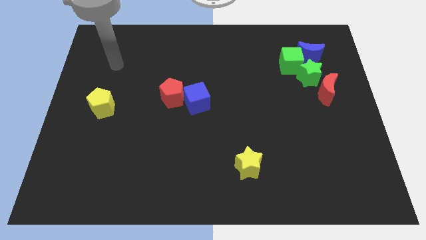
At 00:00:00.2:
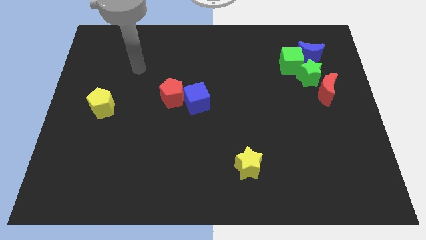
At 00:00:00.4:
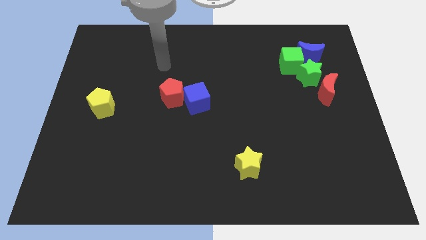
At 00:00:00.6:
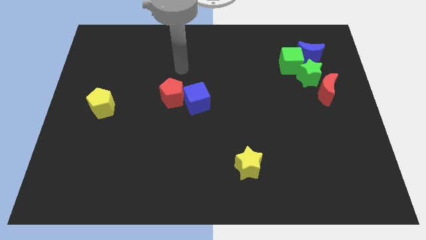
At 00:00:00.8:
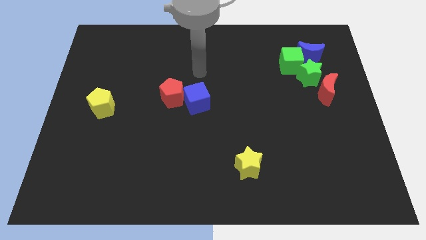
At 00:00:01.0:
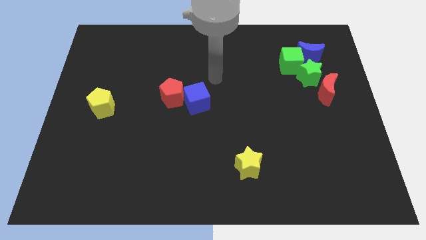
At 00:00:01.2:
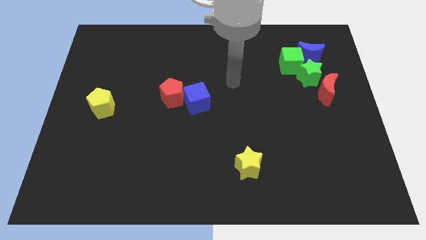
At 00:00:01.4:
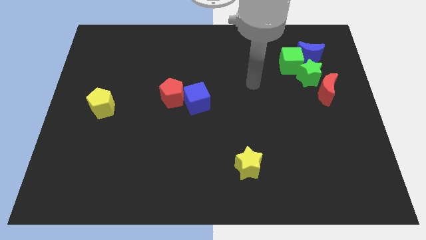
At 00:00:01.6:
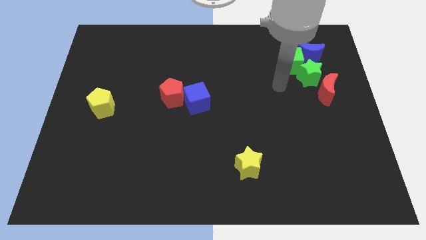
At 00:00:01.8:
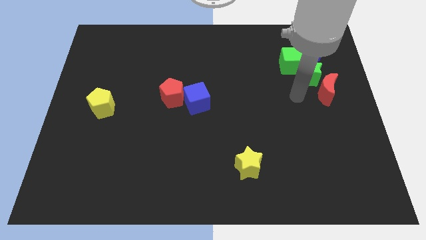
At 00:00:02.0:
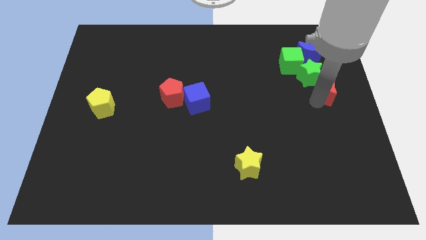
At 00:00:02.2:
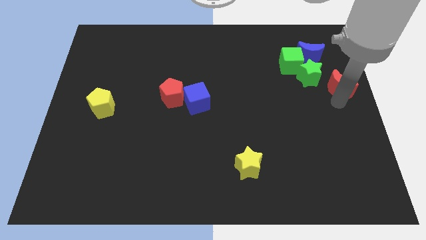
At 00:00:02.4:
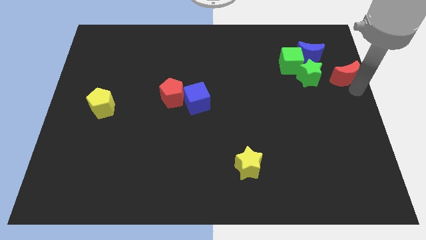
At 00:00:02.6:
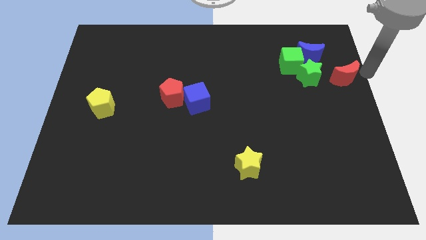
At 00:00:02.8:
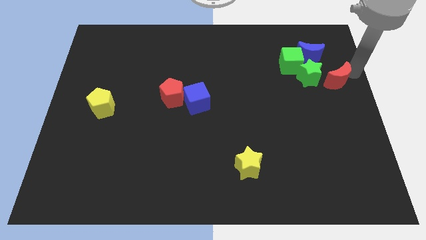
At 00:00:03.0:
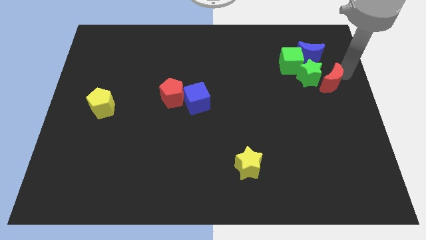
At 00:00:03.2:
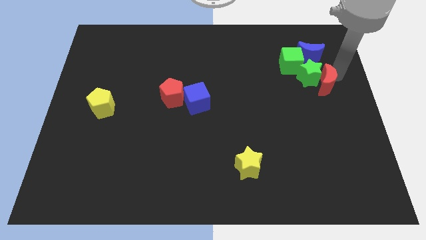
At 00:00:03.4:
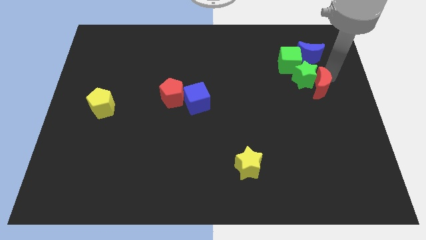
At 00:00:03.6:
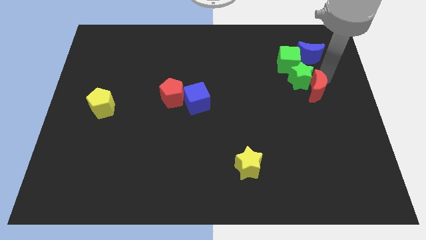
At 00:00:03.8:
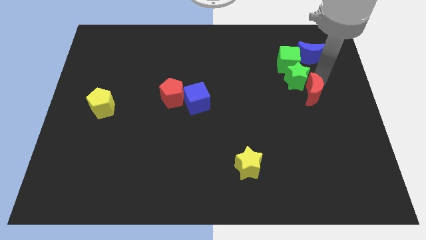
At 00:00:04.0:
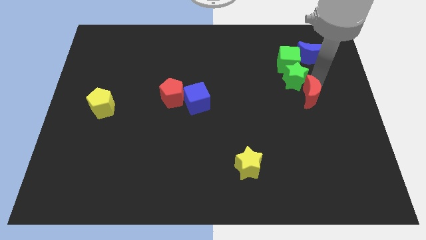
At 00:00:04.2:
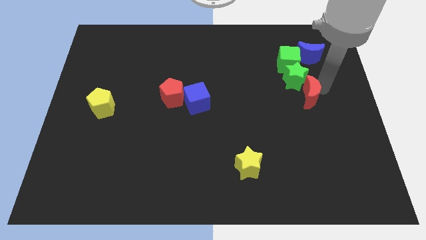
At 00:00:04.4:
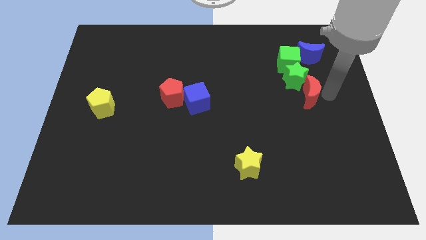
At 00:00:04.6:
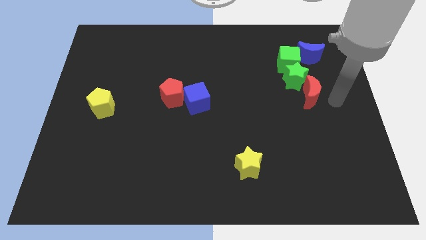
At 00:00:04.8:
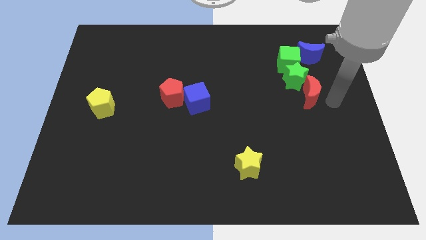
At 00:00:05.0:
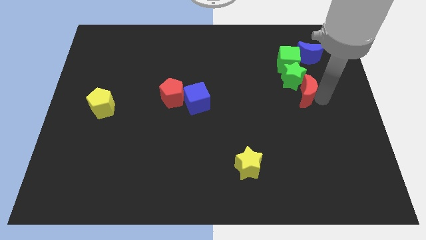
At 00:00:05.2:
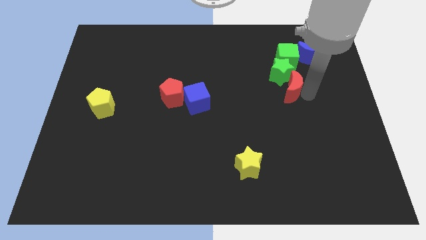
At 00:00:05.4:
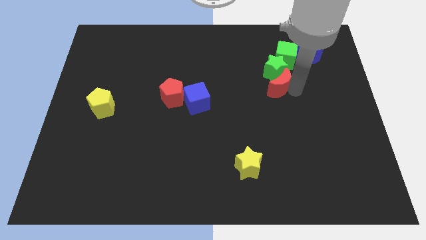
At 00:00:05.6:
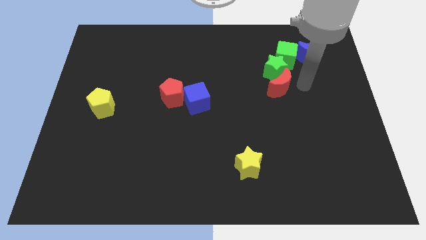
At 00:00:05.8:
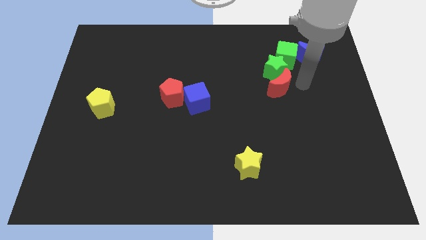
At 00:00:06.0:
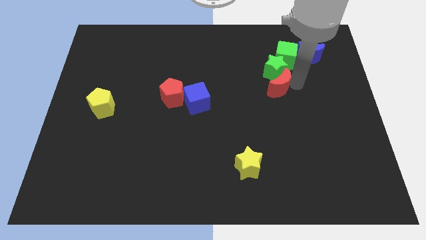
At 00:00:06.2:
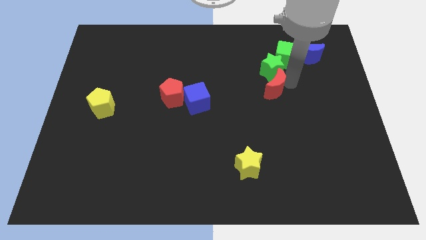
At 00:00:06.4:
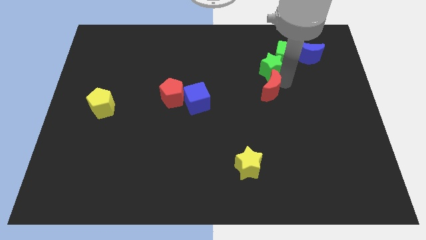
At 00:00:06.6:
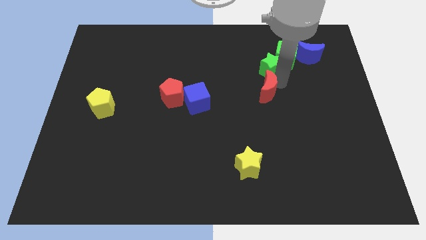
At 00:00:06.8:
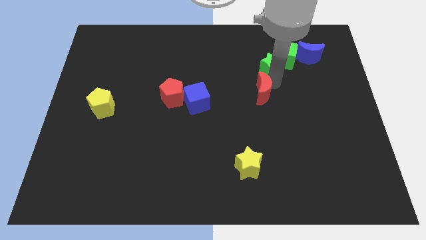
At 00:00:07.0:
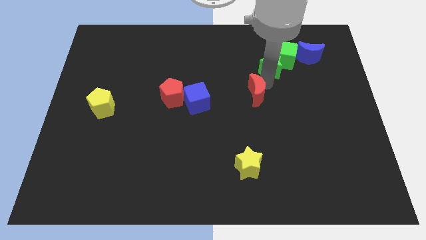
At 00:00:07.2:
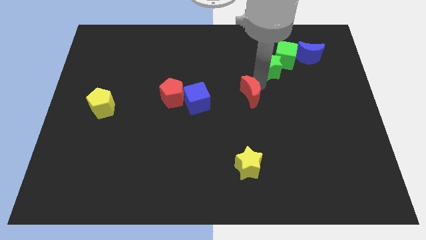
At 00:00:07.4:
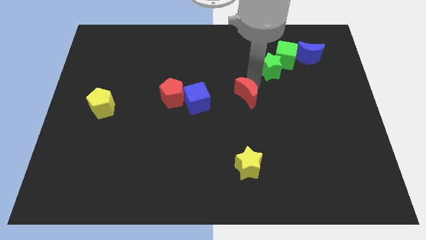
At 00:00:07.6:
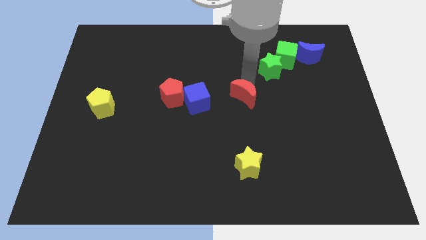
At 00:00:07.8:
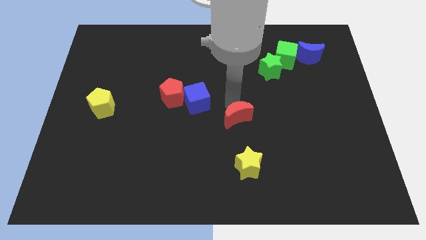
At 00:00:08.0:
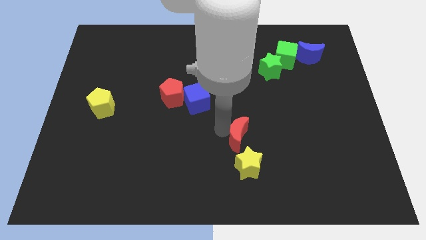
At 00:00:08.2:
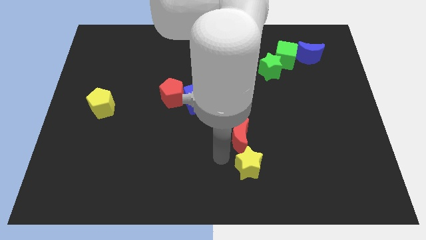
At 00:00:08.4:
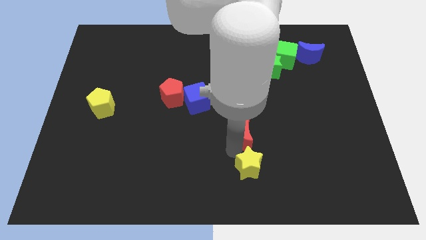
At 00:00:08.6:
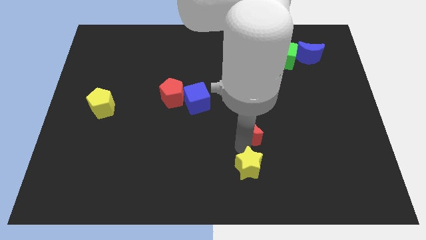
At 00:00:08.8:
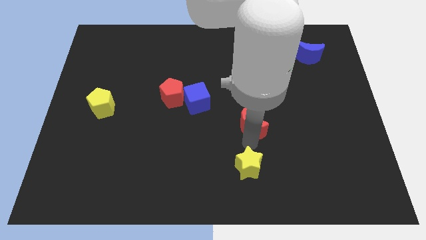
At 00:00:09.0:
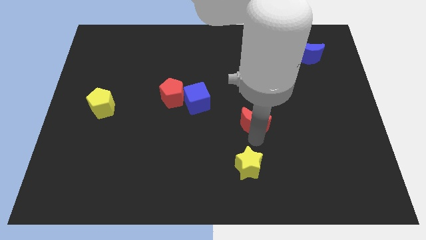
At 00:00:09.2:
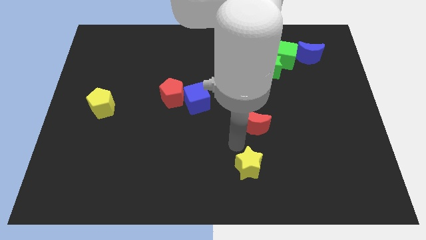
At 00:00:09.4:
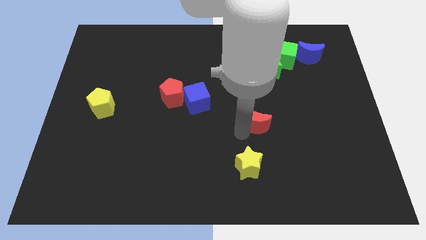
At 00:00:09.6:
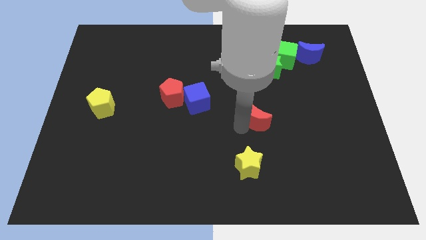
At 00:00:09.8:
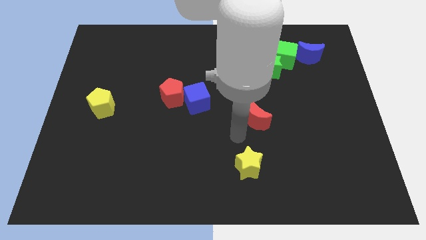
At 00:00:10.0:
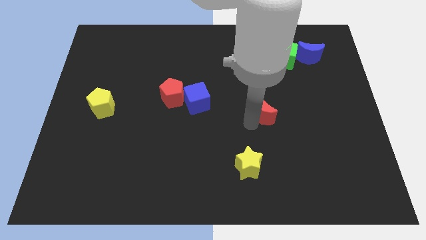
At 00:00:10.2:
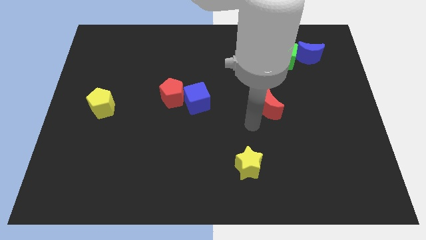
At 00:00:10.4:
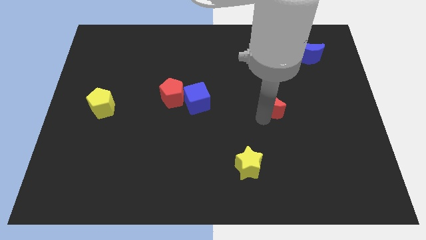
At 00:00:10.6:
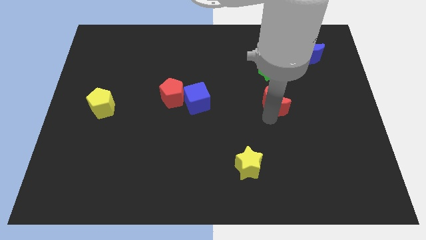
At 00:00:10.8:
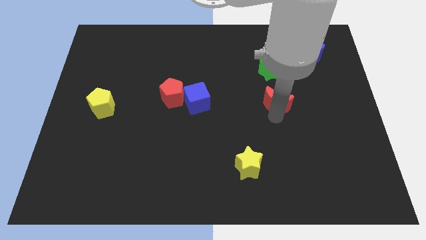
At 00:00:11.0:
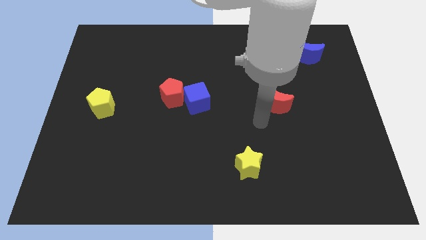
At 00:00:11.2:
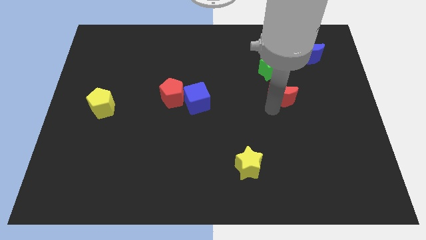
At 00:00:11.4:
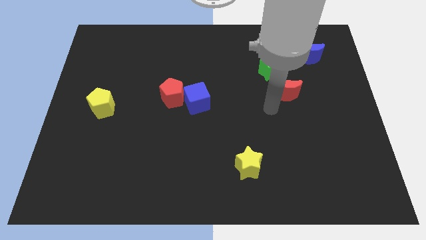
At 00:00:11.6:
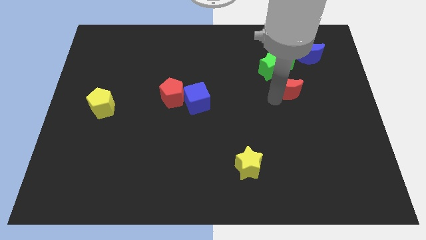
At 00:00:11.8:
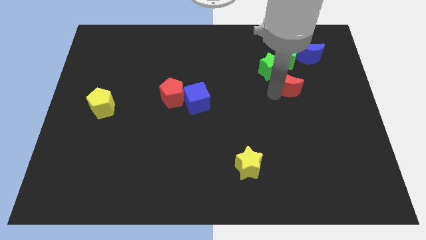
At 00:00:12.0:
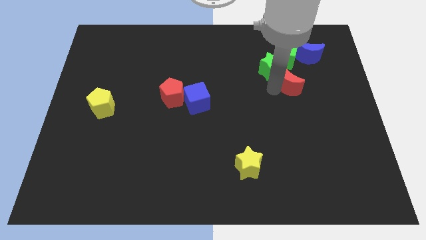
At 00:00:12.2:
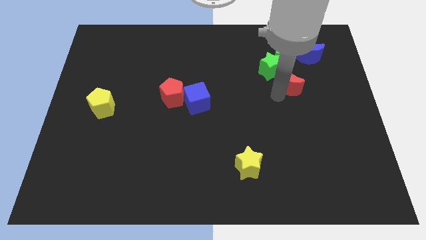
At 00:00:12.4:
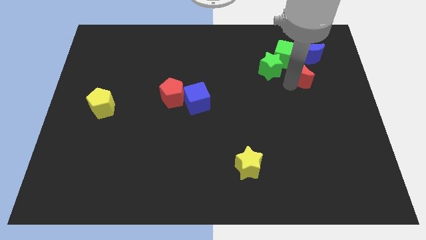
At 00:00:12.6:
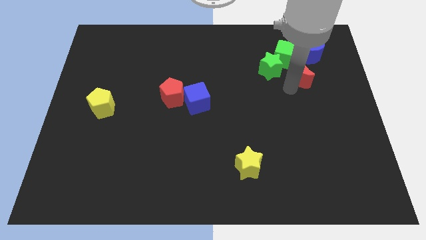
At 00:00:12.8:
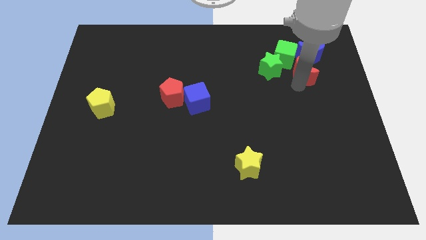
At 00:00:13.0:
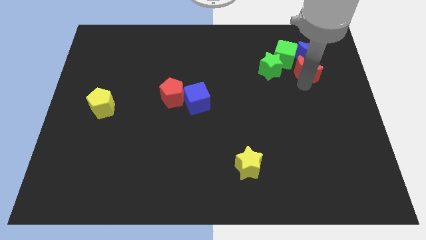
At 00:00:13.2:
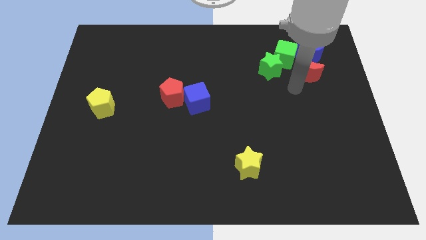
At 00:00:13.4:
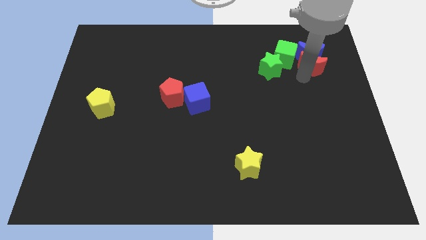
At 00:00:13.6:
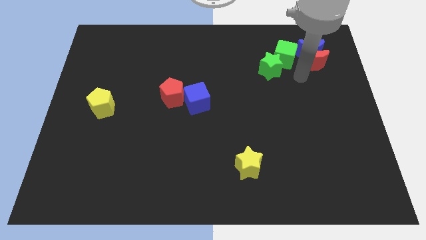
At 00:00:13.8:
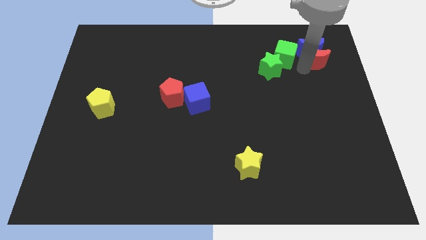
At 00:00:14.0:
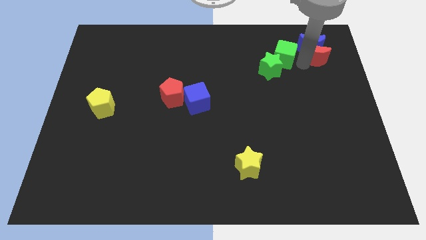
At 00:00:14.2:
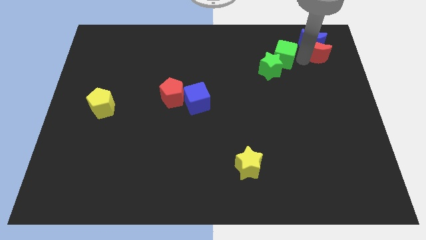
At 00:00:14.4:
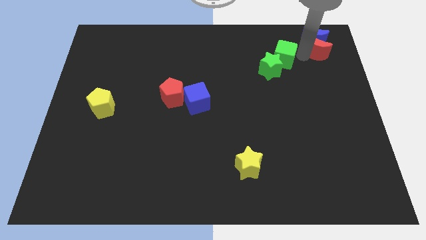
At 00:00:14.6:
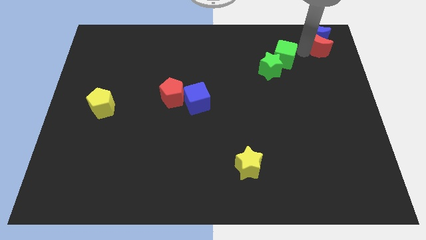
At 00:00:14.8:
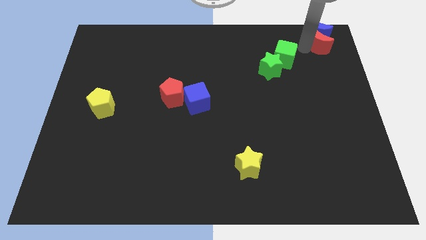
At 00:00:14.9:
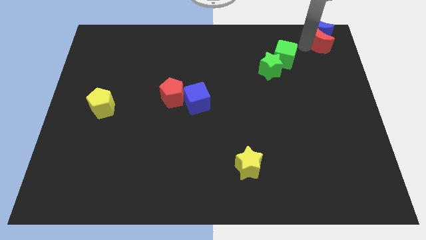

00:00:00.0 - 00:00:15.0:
put the red moon to the top right corner
